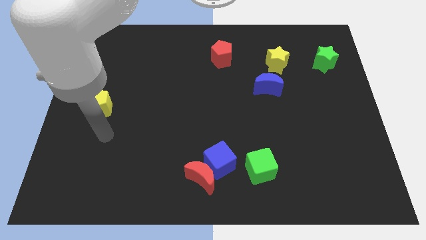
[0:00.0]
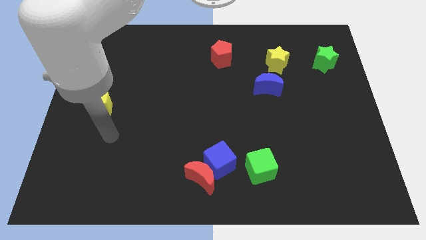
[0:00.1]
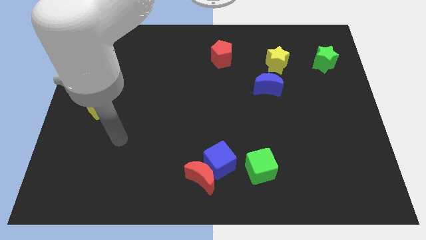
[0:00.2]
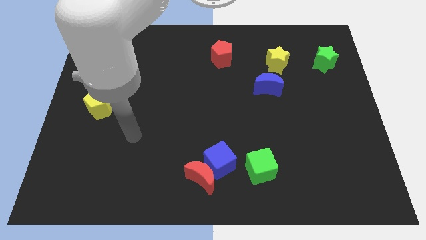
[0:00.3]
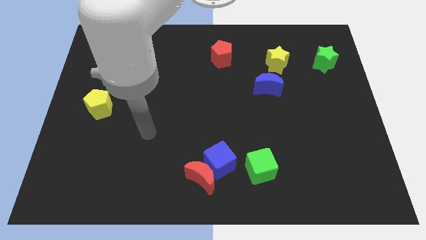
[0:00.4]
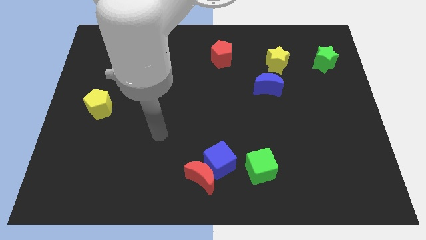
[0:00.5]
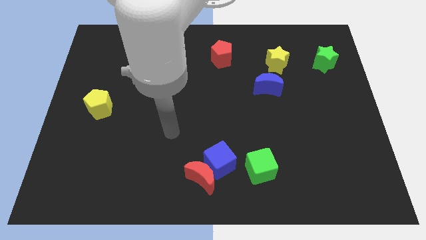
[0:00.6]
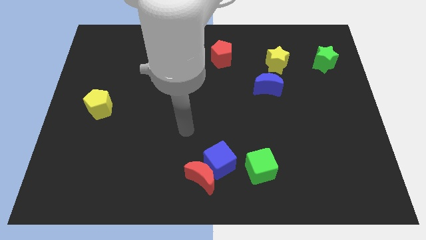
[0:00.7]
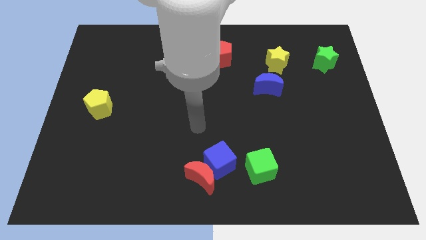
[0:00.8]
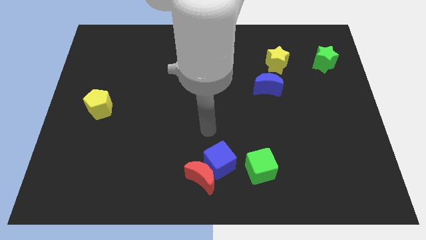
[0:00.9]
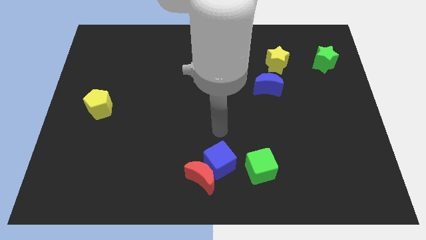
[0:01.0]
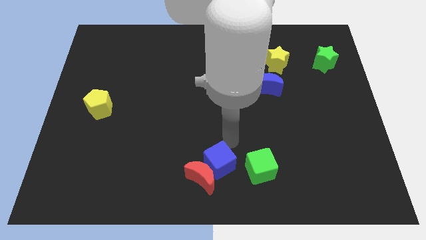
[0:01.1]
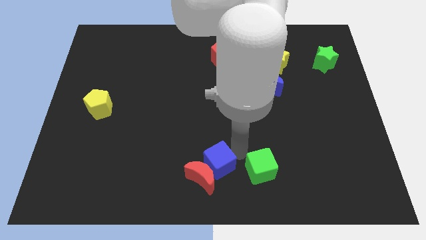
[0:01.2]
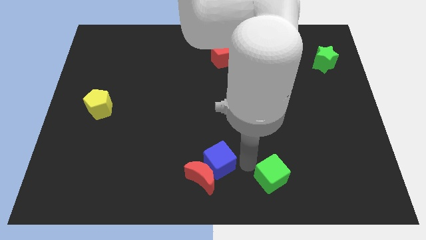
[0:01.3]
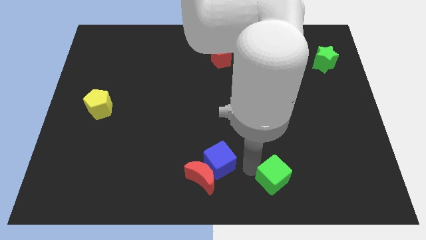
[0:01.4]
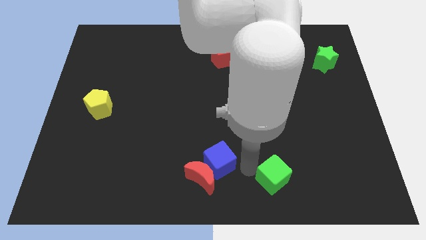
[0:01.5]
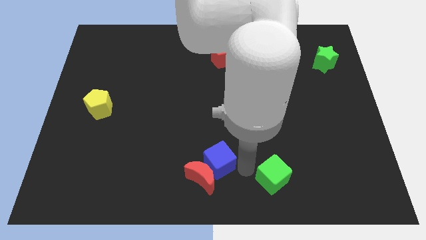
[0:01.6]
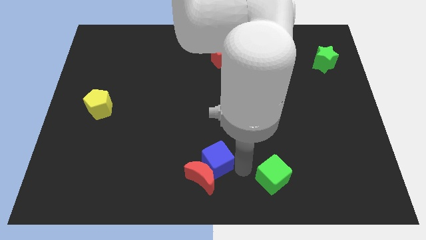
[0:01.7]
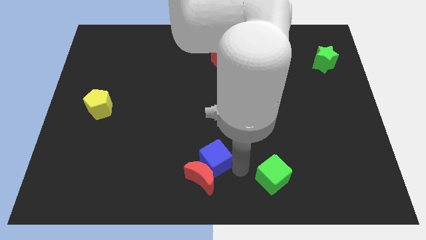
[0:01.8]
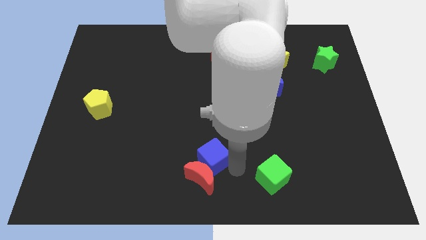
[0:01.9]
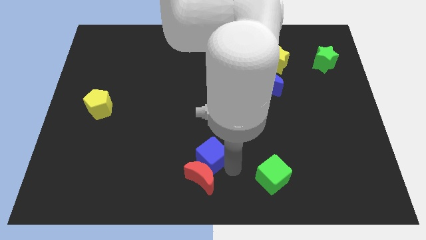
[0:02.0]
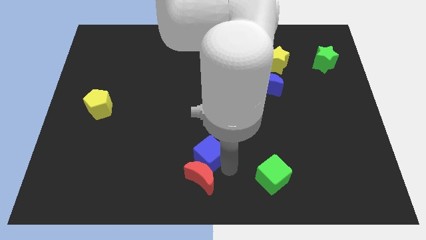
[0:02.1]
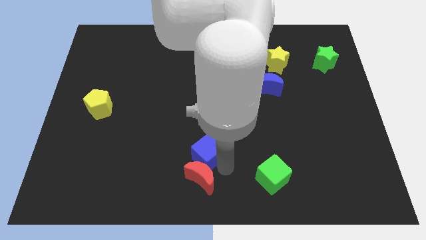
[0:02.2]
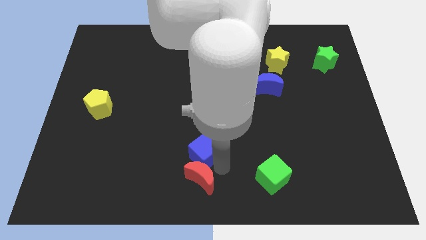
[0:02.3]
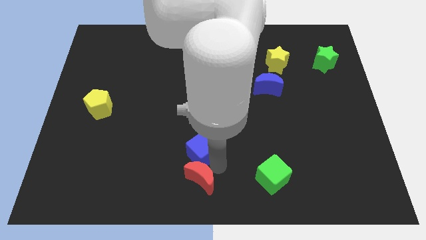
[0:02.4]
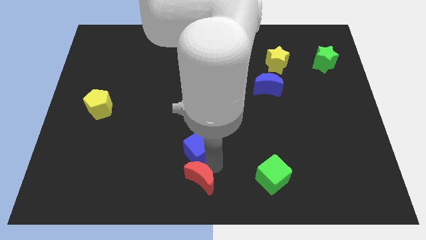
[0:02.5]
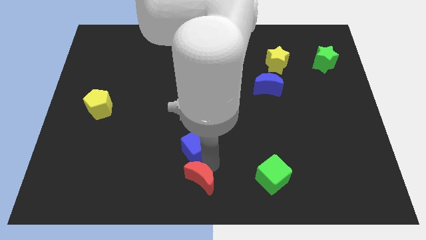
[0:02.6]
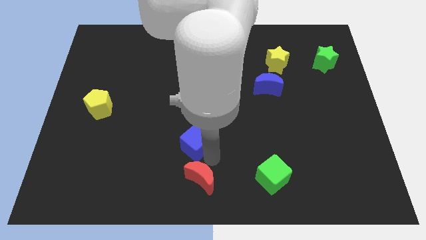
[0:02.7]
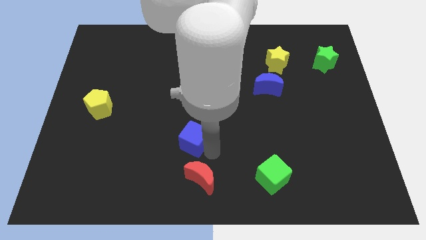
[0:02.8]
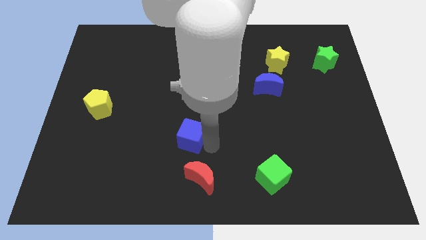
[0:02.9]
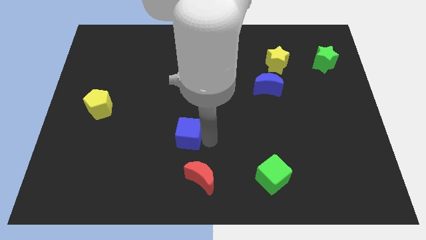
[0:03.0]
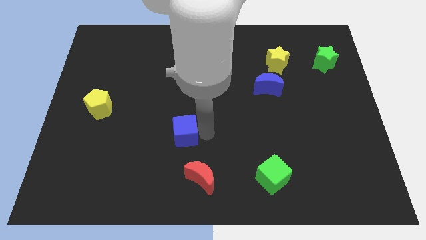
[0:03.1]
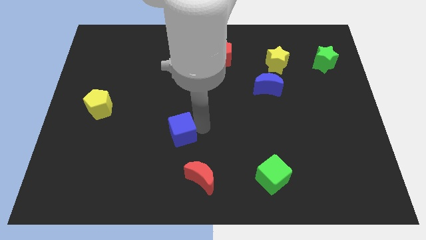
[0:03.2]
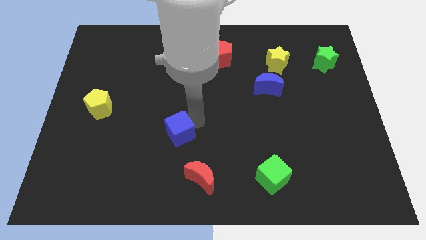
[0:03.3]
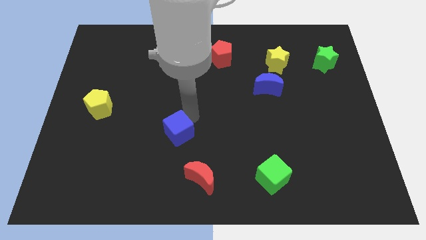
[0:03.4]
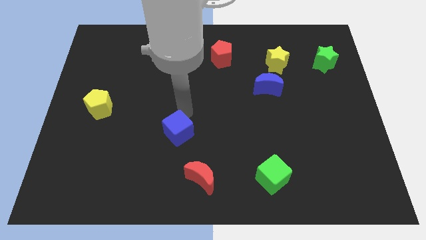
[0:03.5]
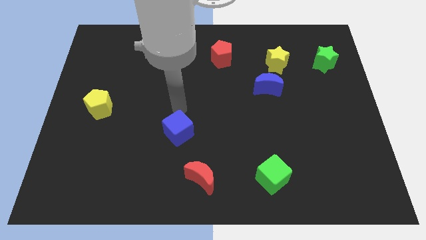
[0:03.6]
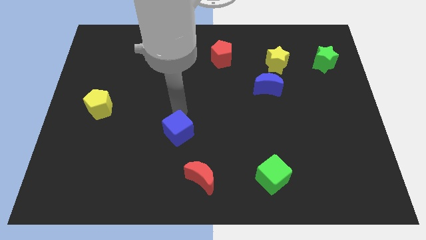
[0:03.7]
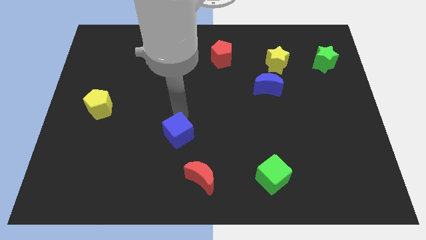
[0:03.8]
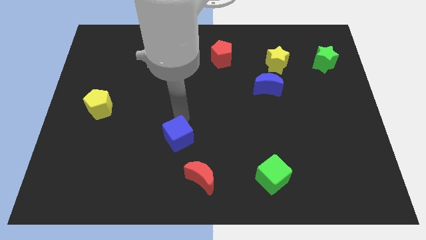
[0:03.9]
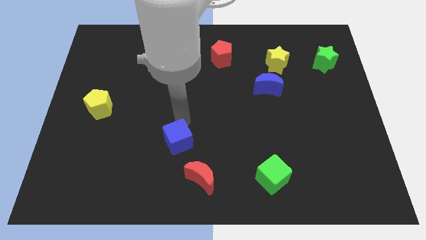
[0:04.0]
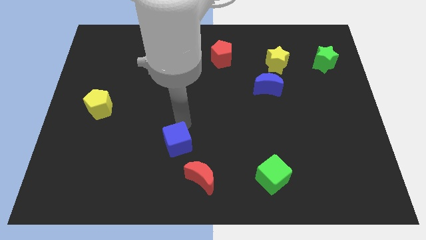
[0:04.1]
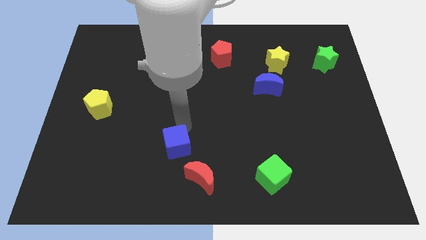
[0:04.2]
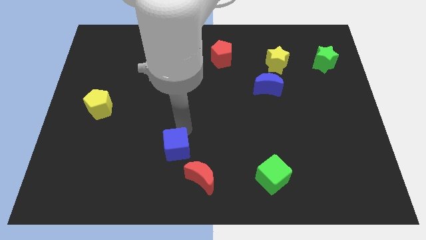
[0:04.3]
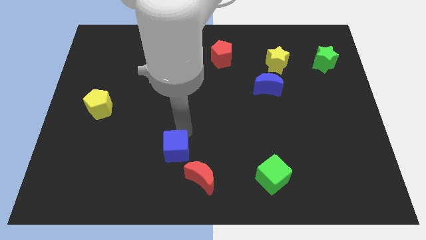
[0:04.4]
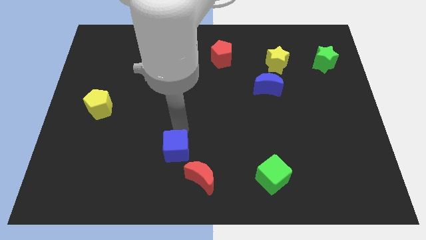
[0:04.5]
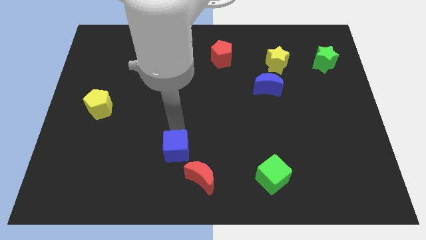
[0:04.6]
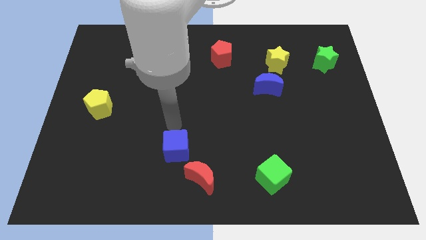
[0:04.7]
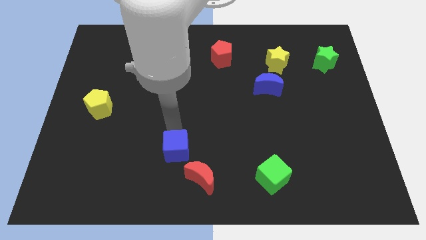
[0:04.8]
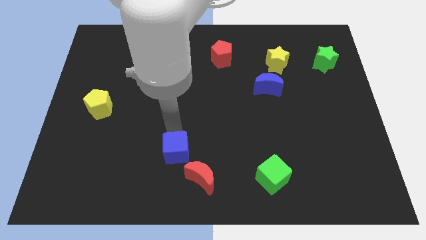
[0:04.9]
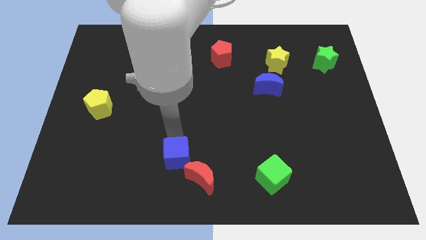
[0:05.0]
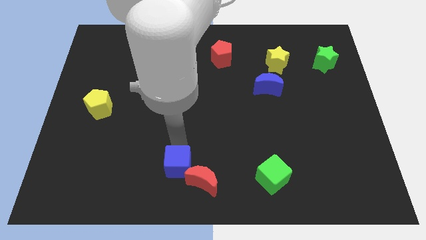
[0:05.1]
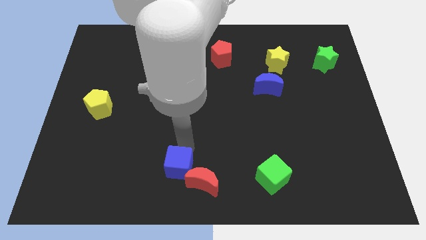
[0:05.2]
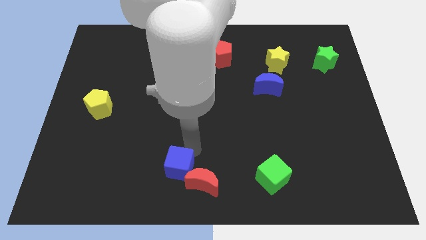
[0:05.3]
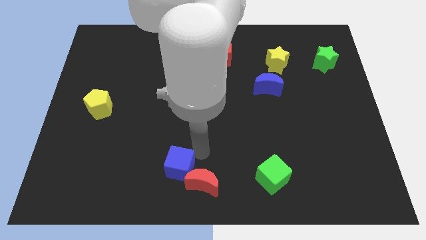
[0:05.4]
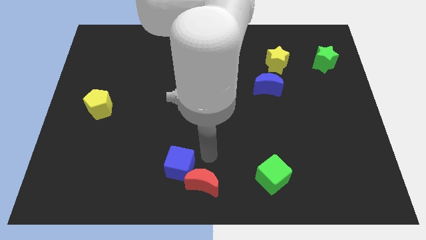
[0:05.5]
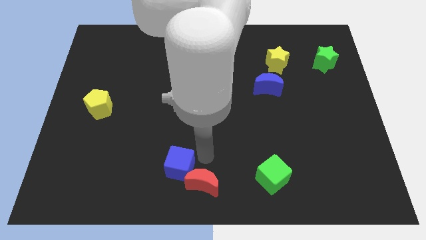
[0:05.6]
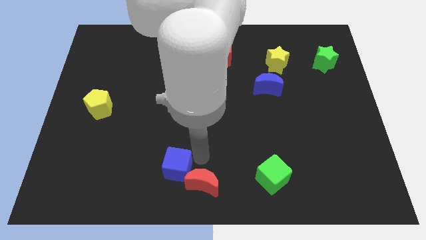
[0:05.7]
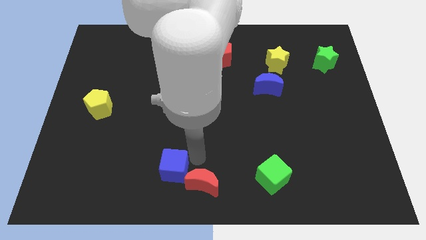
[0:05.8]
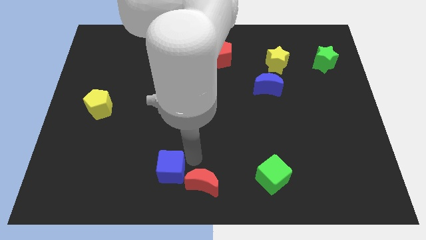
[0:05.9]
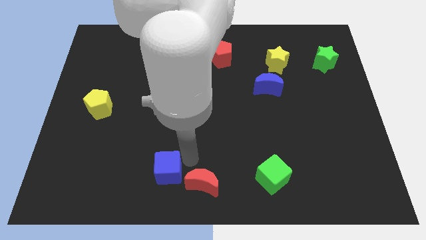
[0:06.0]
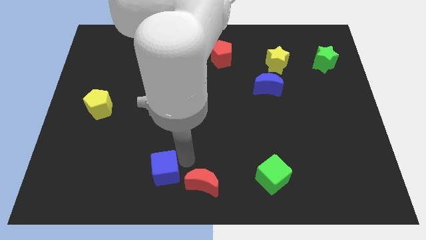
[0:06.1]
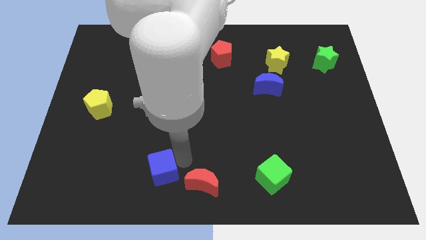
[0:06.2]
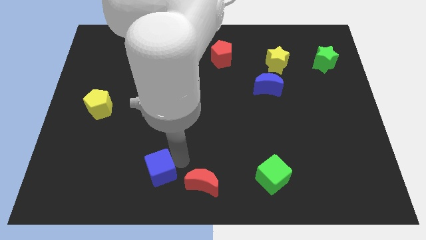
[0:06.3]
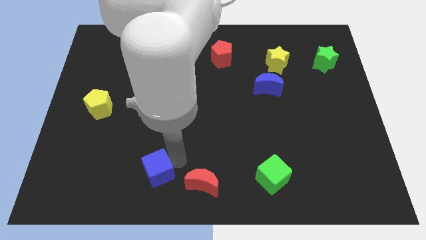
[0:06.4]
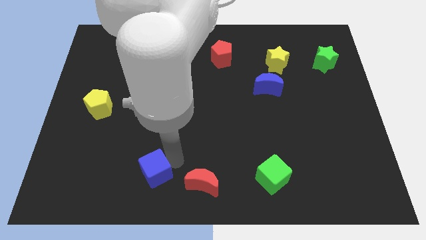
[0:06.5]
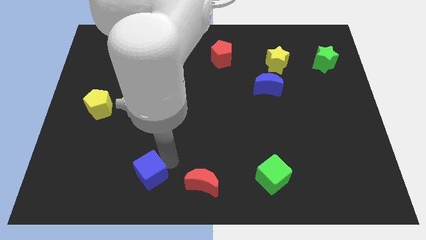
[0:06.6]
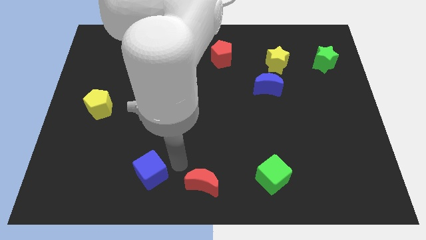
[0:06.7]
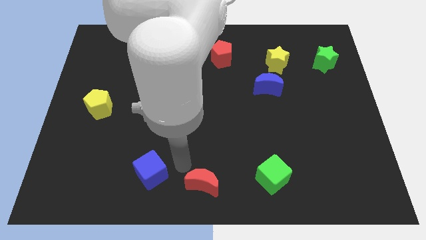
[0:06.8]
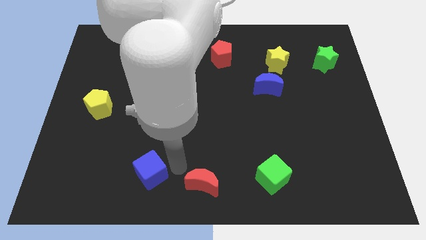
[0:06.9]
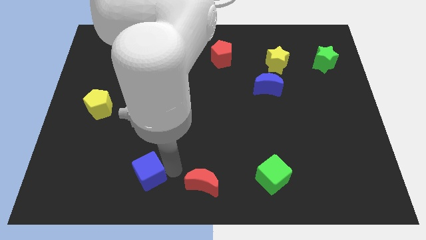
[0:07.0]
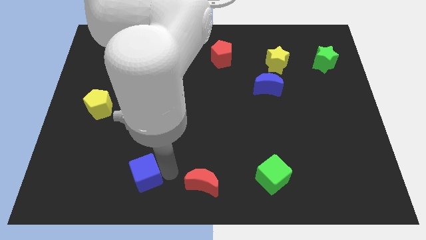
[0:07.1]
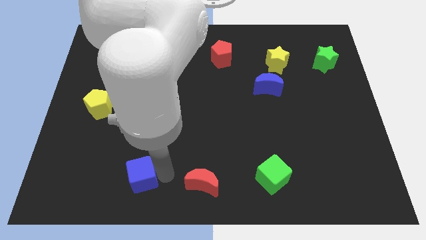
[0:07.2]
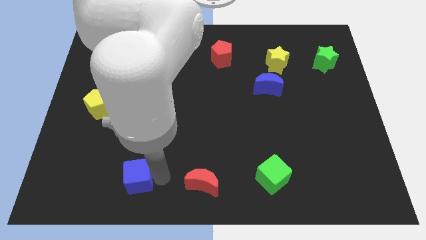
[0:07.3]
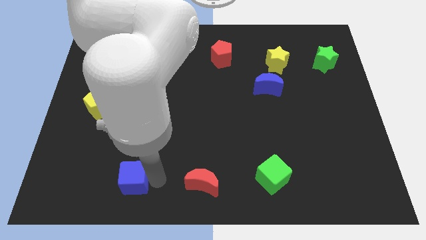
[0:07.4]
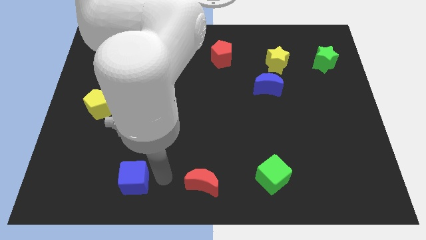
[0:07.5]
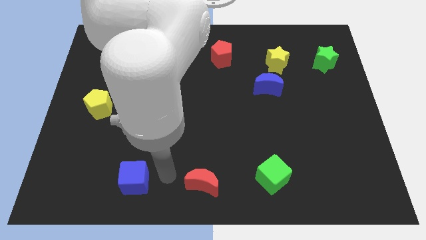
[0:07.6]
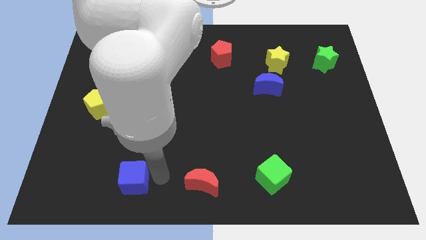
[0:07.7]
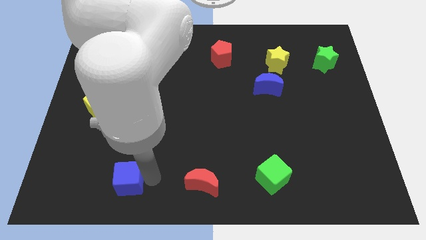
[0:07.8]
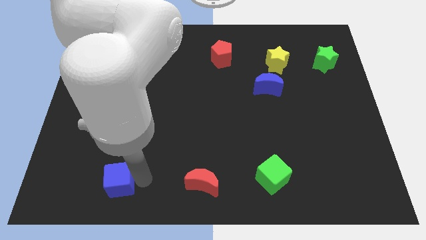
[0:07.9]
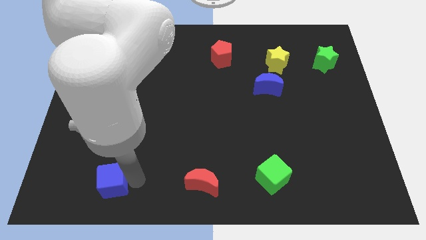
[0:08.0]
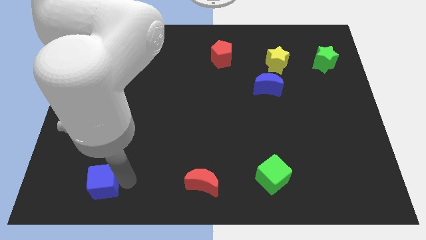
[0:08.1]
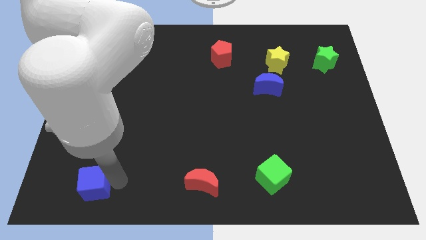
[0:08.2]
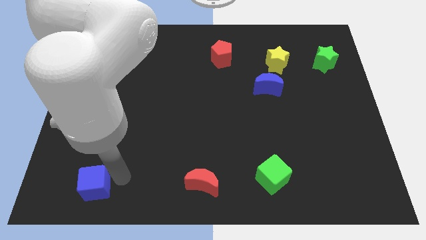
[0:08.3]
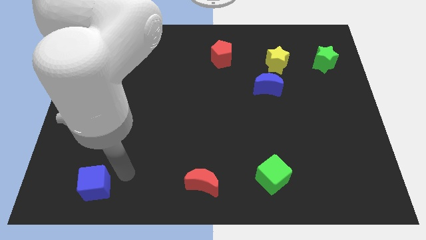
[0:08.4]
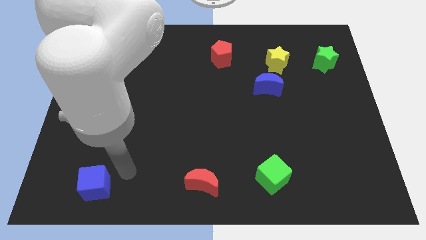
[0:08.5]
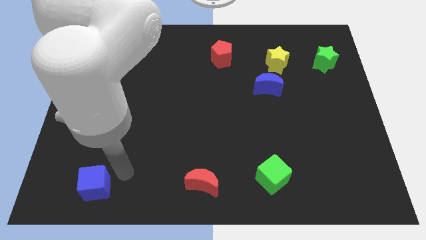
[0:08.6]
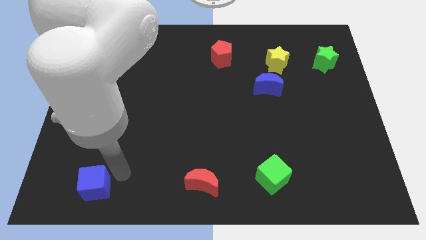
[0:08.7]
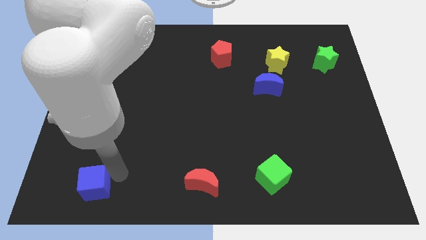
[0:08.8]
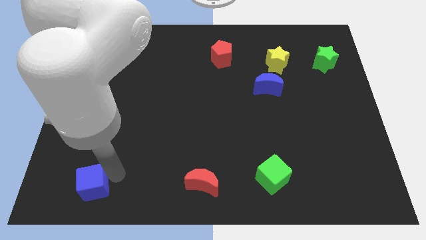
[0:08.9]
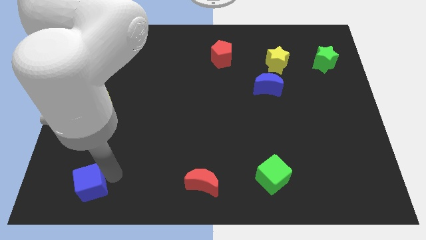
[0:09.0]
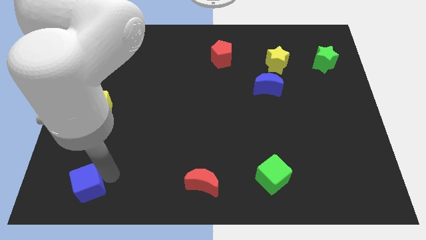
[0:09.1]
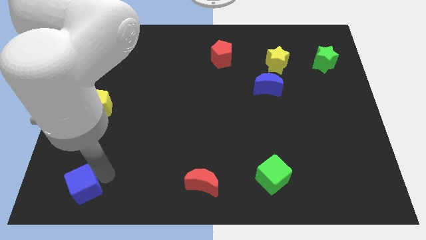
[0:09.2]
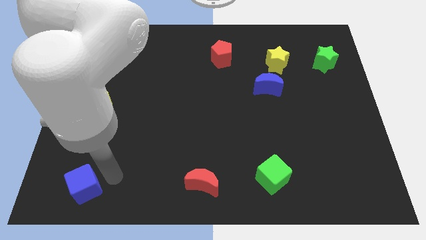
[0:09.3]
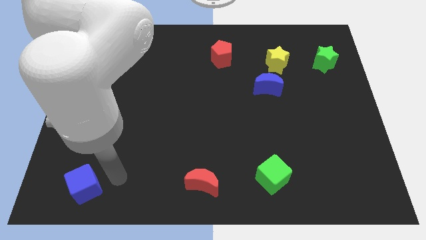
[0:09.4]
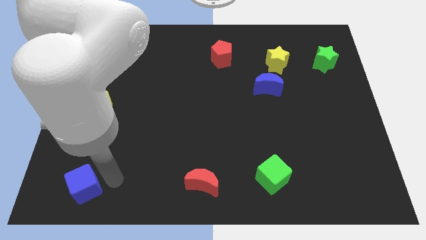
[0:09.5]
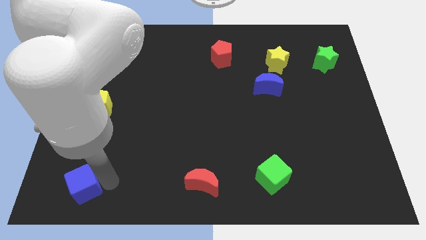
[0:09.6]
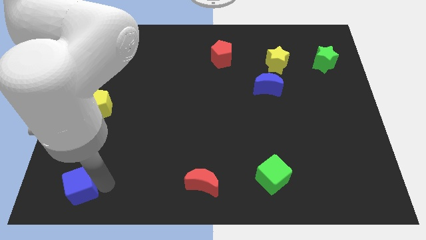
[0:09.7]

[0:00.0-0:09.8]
put the blue cube to the lower left corner
